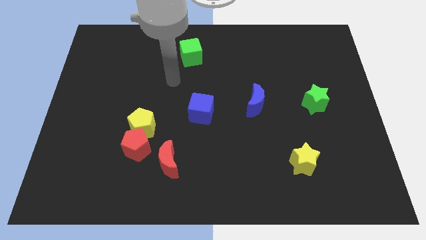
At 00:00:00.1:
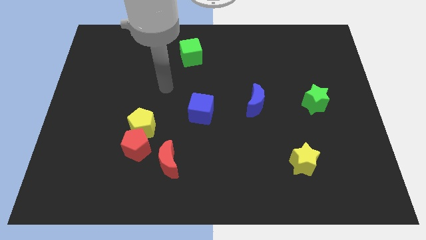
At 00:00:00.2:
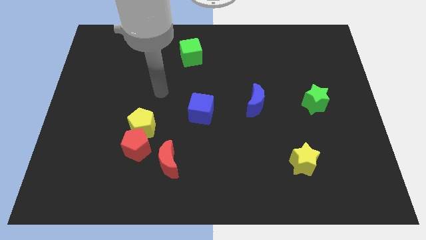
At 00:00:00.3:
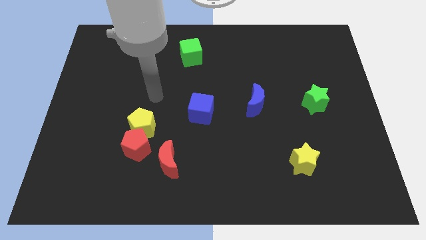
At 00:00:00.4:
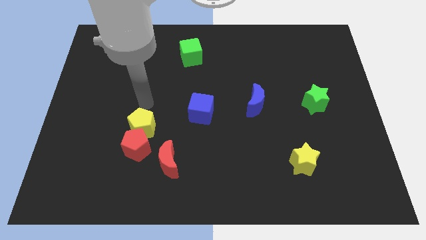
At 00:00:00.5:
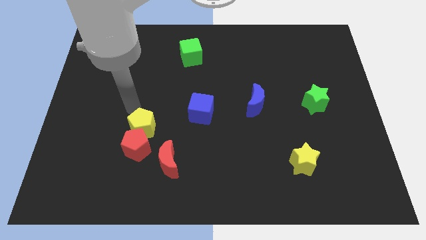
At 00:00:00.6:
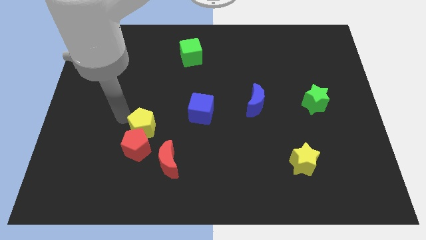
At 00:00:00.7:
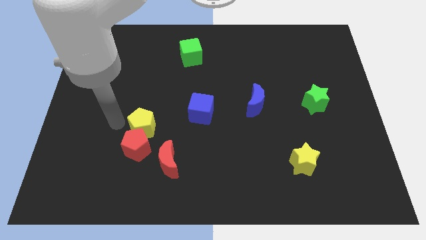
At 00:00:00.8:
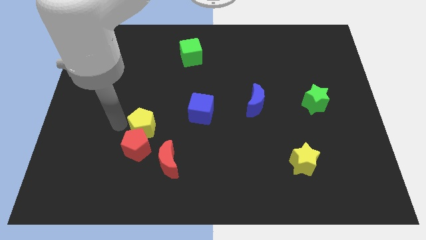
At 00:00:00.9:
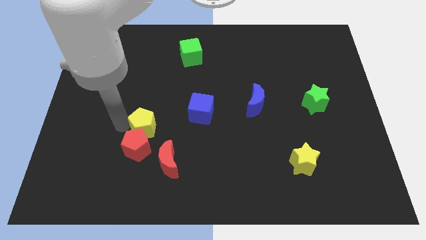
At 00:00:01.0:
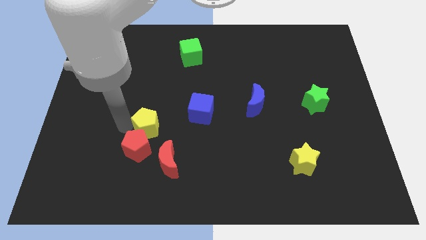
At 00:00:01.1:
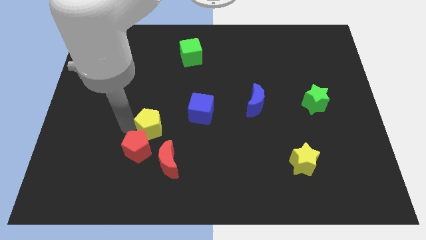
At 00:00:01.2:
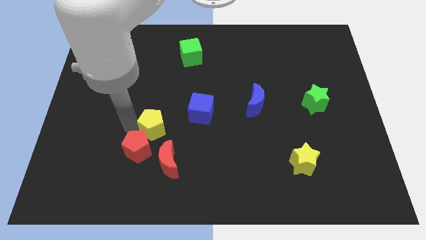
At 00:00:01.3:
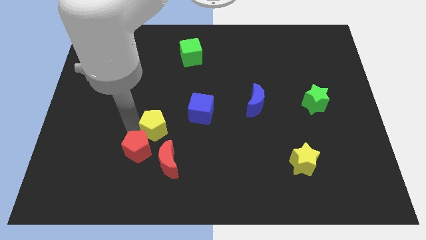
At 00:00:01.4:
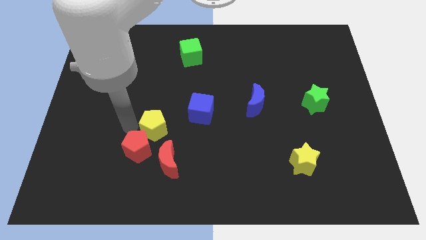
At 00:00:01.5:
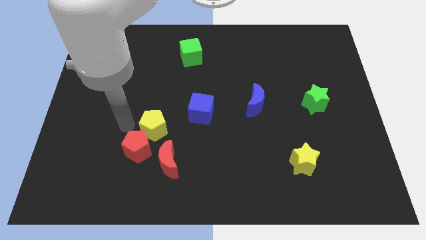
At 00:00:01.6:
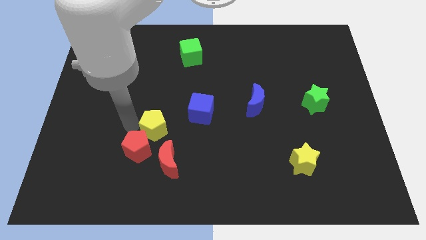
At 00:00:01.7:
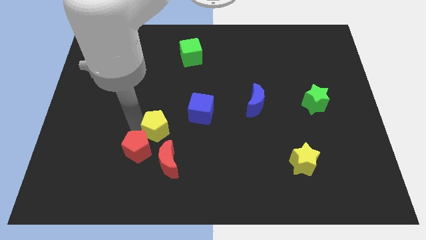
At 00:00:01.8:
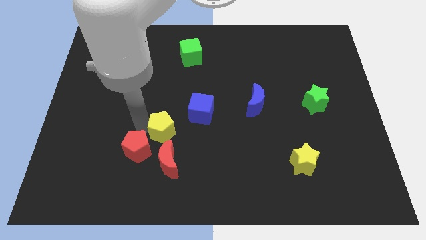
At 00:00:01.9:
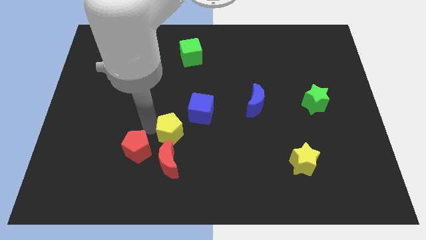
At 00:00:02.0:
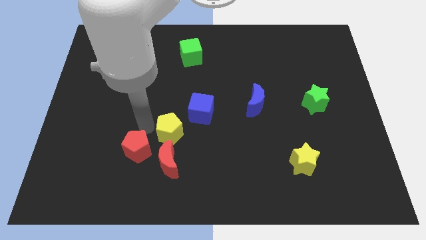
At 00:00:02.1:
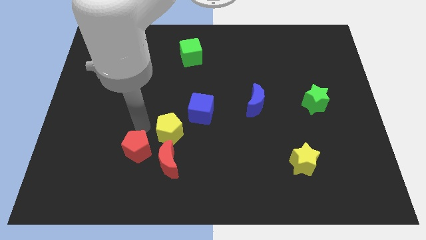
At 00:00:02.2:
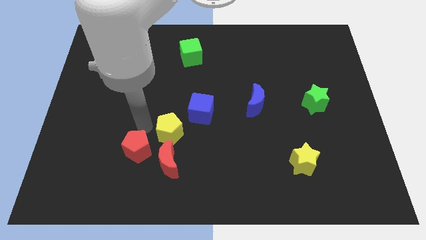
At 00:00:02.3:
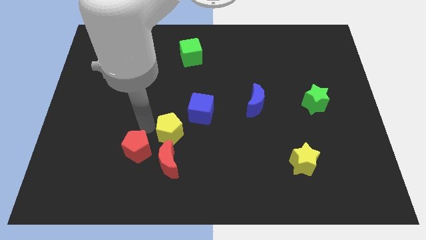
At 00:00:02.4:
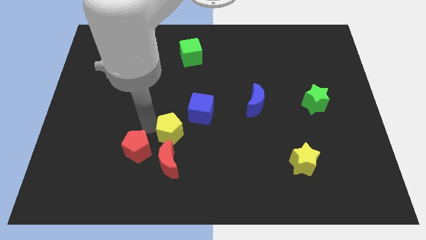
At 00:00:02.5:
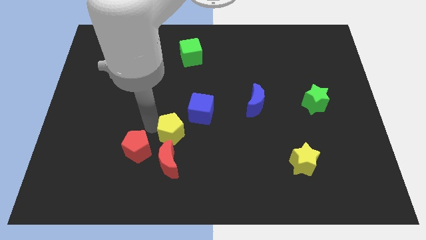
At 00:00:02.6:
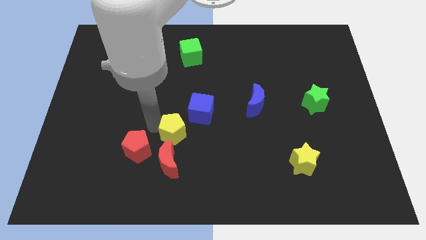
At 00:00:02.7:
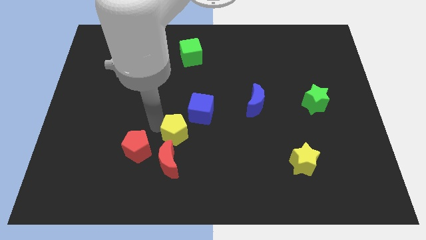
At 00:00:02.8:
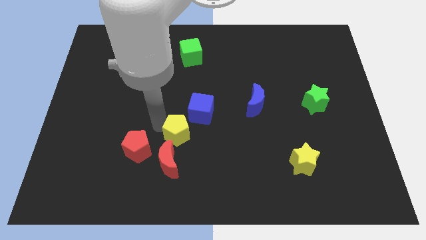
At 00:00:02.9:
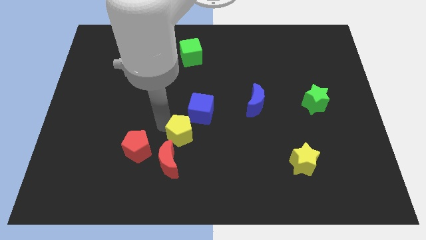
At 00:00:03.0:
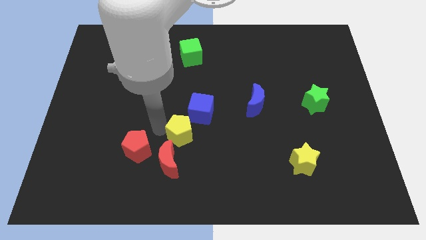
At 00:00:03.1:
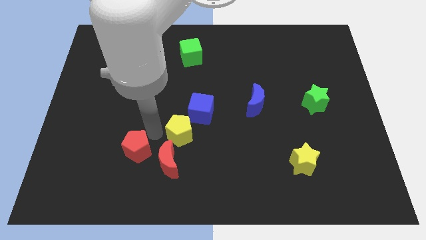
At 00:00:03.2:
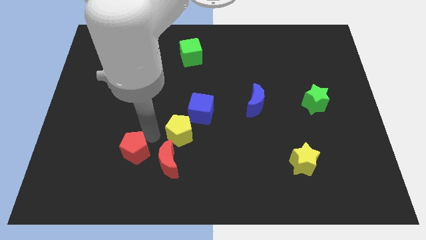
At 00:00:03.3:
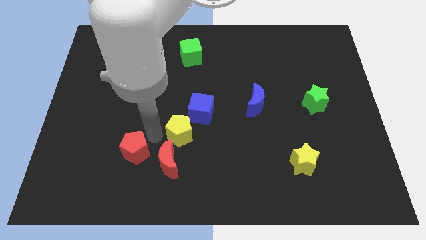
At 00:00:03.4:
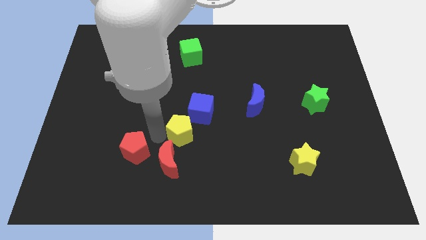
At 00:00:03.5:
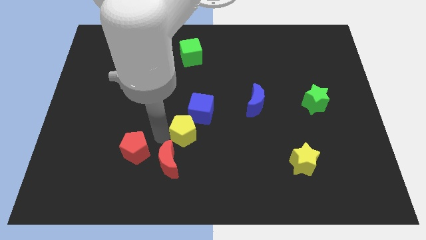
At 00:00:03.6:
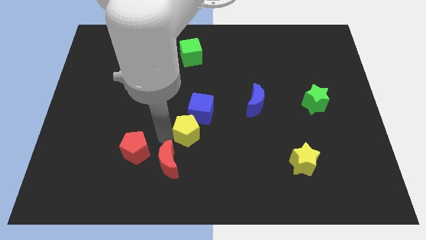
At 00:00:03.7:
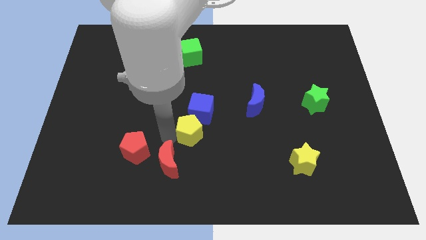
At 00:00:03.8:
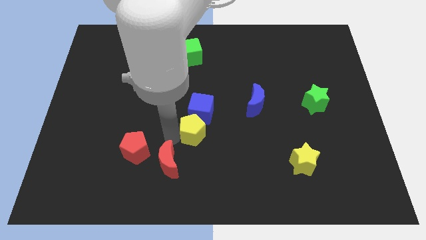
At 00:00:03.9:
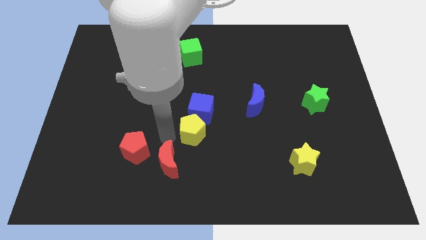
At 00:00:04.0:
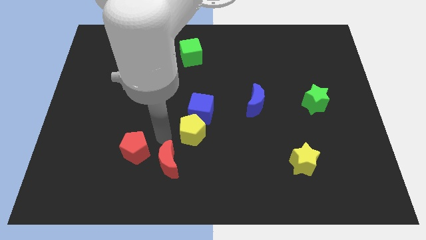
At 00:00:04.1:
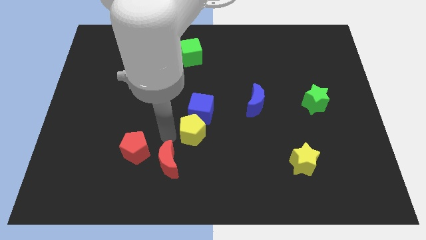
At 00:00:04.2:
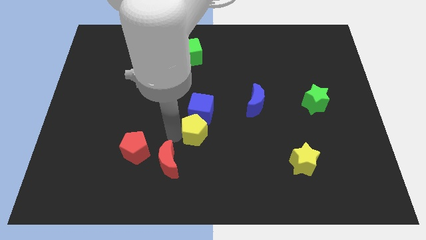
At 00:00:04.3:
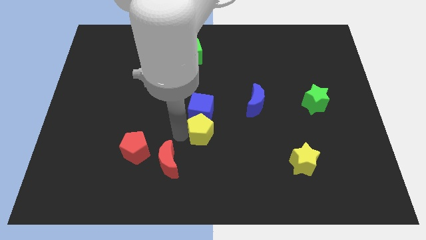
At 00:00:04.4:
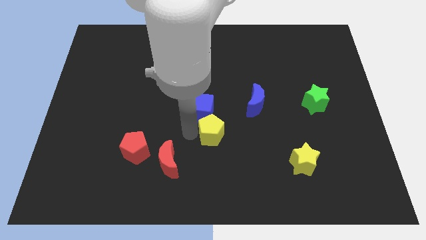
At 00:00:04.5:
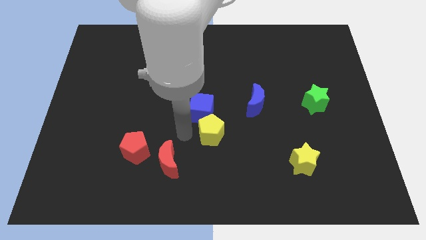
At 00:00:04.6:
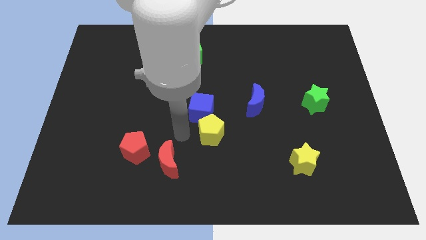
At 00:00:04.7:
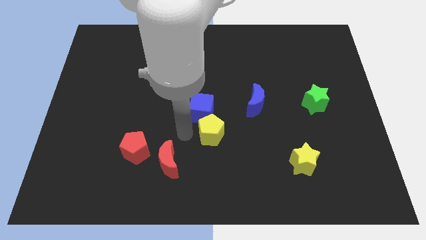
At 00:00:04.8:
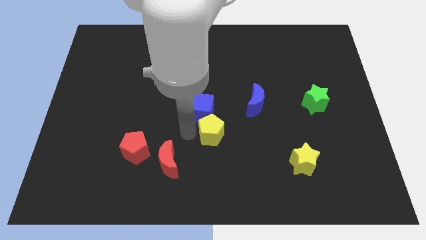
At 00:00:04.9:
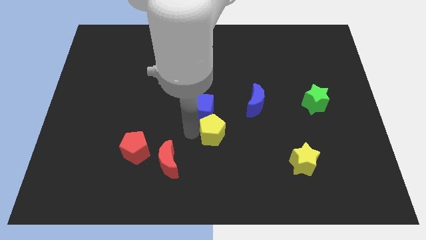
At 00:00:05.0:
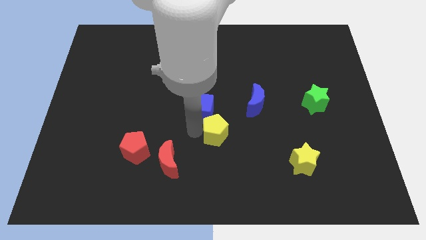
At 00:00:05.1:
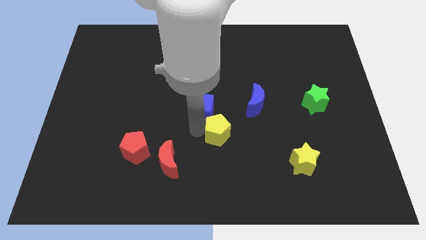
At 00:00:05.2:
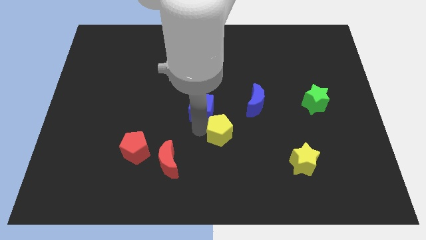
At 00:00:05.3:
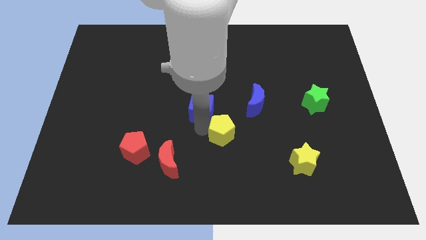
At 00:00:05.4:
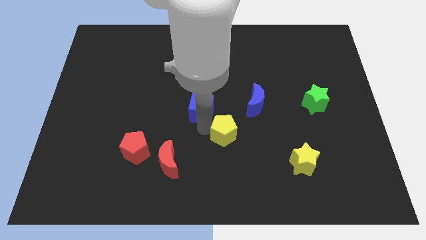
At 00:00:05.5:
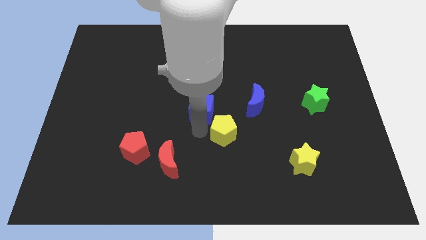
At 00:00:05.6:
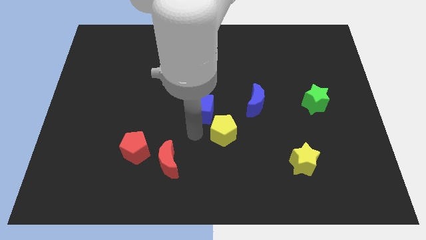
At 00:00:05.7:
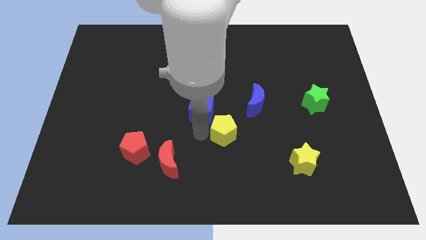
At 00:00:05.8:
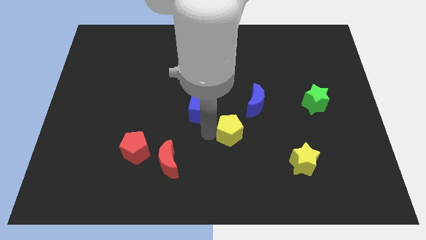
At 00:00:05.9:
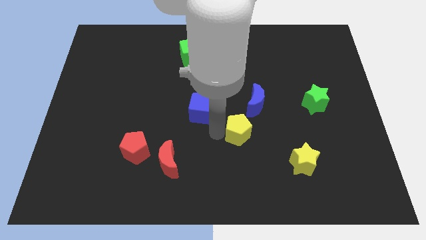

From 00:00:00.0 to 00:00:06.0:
push the yellow pentagon right

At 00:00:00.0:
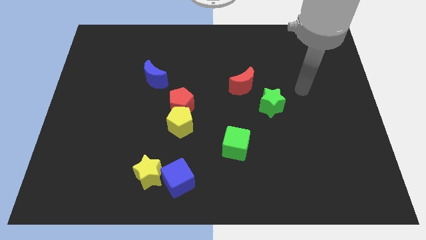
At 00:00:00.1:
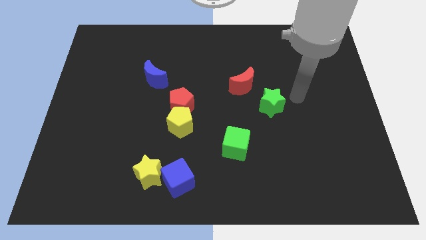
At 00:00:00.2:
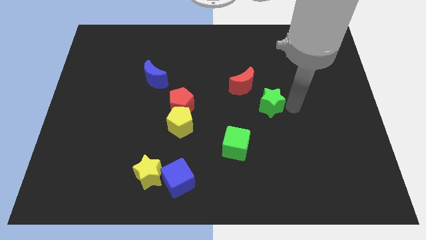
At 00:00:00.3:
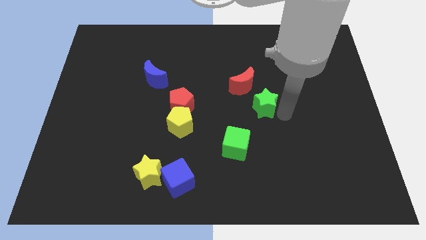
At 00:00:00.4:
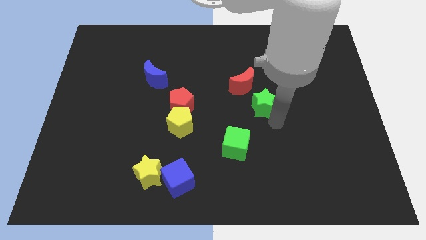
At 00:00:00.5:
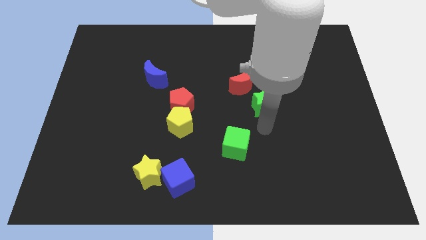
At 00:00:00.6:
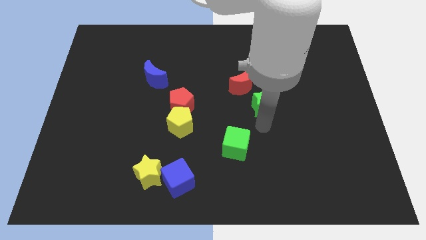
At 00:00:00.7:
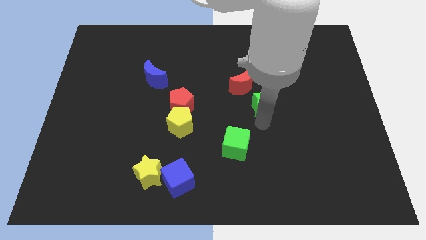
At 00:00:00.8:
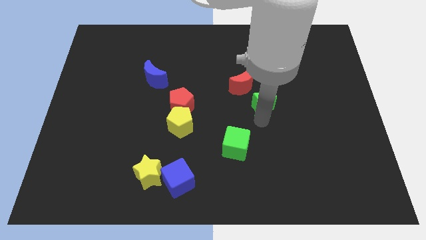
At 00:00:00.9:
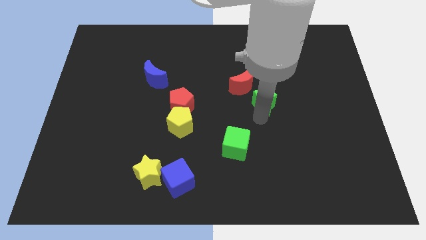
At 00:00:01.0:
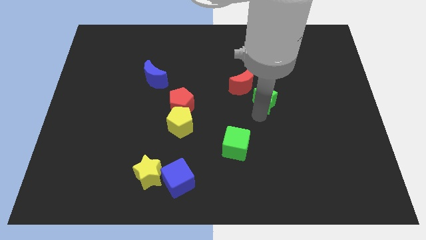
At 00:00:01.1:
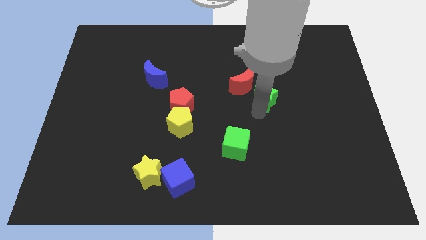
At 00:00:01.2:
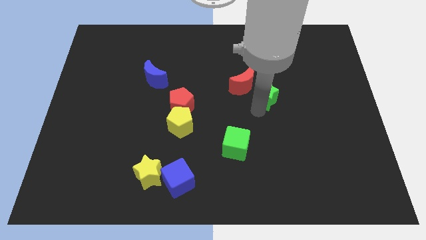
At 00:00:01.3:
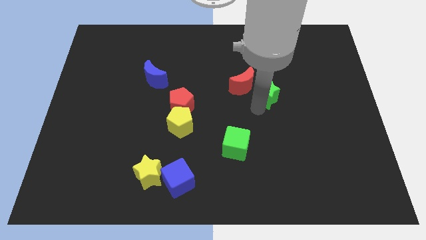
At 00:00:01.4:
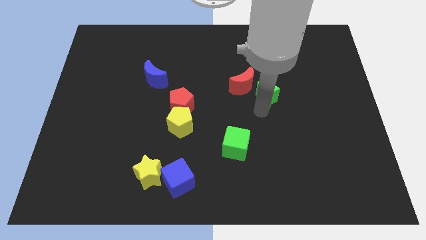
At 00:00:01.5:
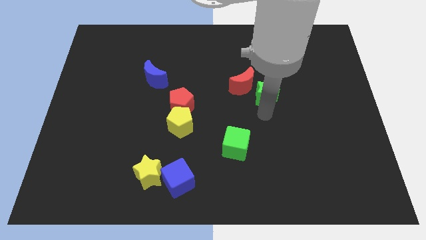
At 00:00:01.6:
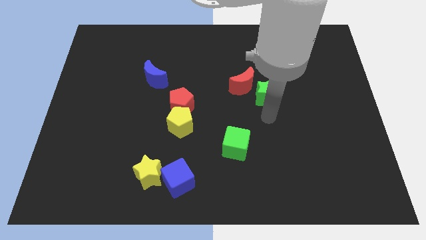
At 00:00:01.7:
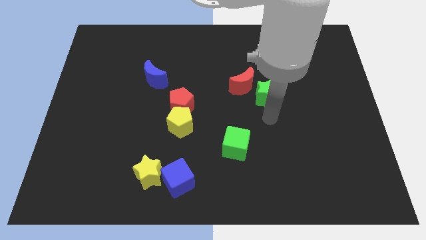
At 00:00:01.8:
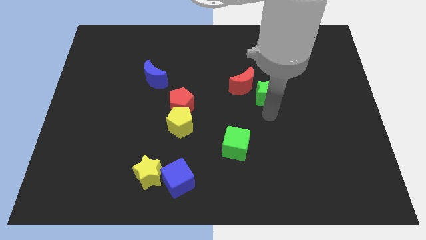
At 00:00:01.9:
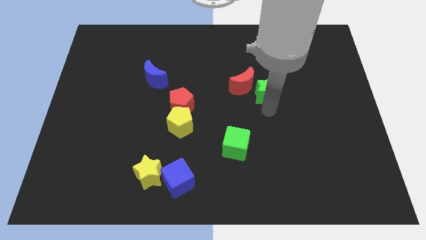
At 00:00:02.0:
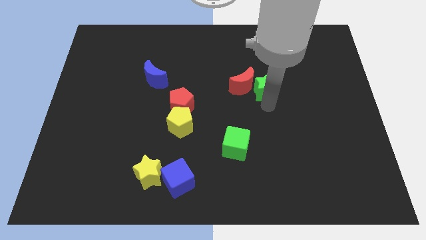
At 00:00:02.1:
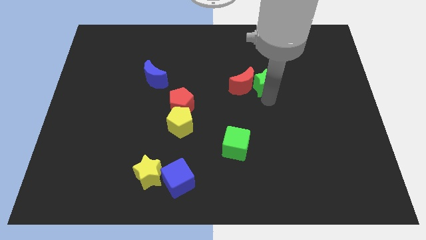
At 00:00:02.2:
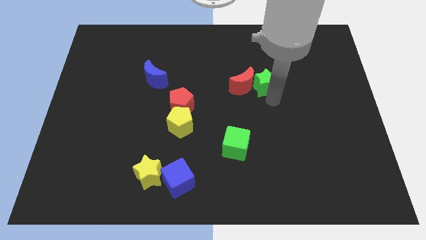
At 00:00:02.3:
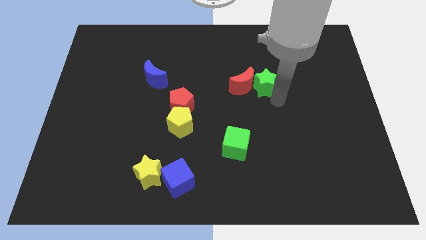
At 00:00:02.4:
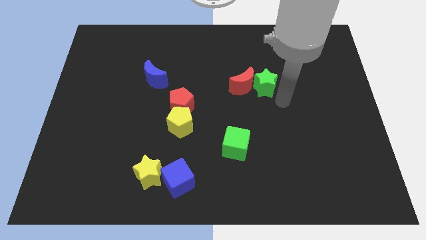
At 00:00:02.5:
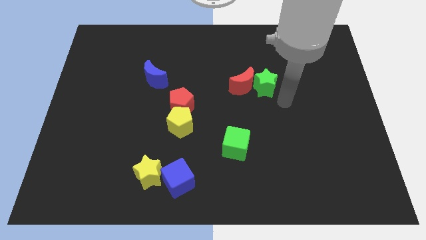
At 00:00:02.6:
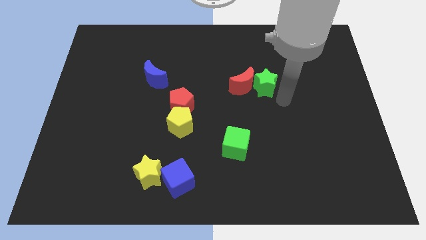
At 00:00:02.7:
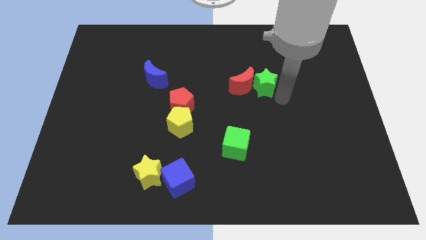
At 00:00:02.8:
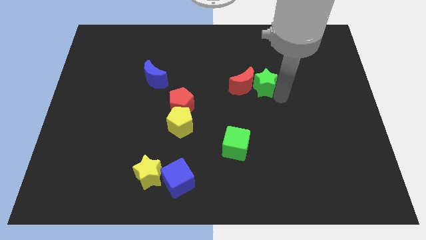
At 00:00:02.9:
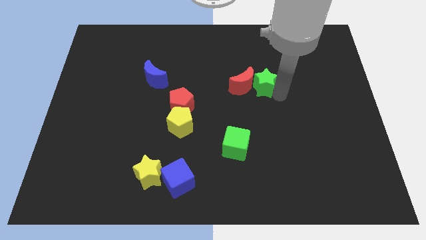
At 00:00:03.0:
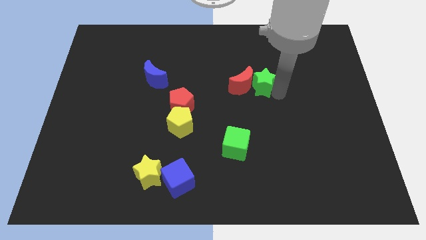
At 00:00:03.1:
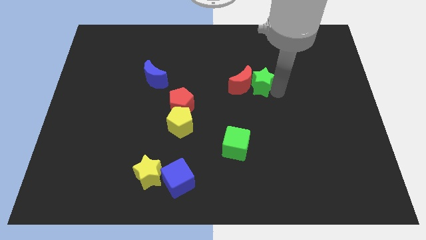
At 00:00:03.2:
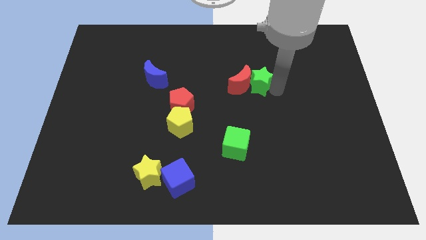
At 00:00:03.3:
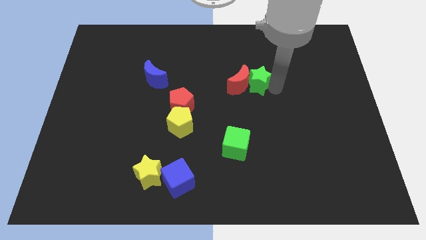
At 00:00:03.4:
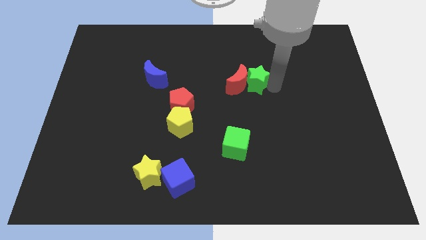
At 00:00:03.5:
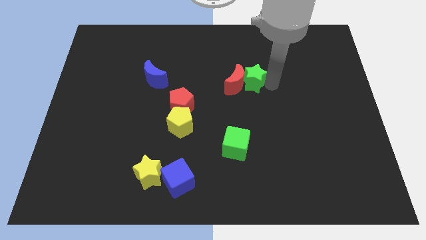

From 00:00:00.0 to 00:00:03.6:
move the green star a bit upwards and left diagonally
